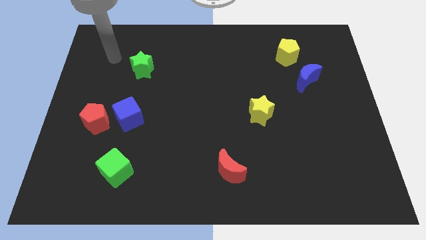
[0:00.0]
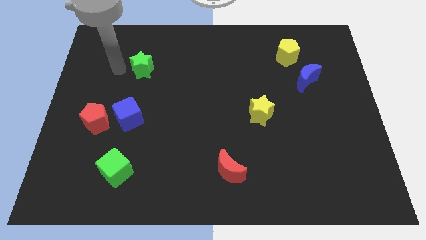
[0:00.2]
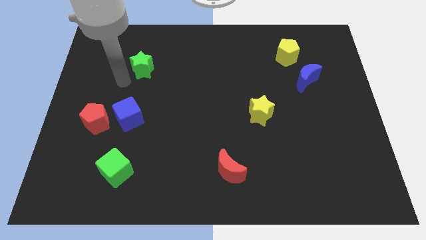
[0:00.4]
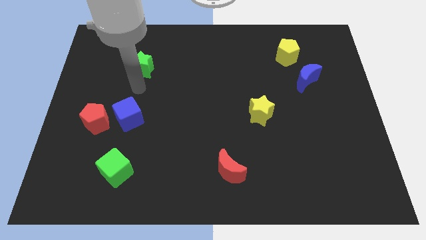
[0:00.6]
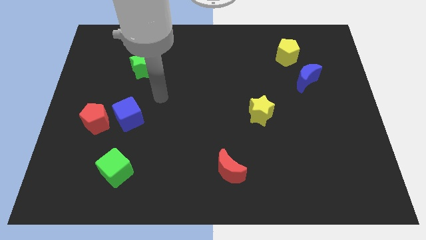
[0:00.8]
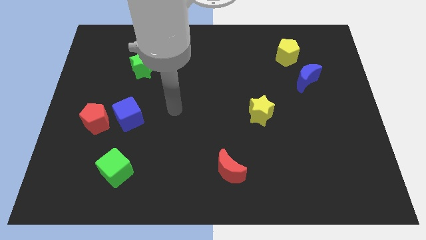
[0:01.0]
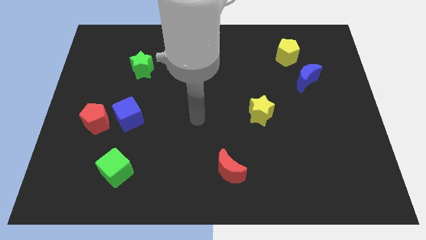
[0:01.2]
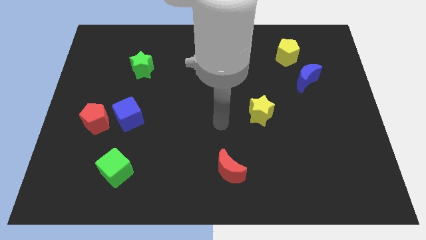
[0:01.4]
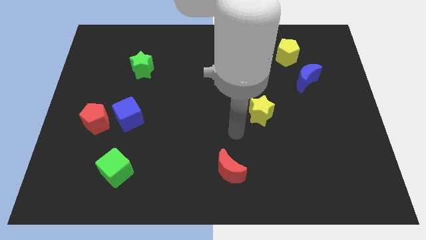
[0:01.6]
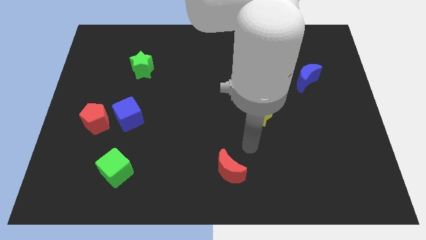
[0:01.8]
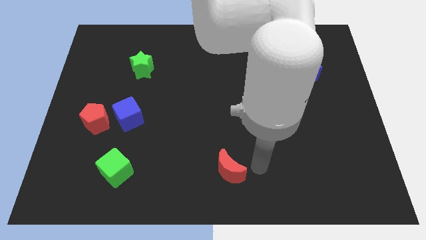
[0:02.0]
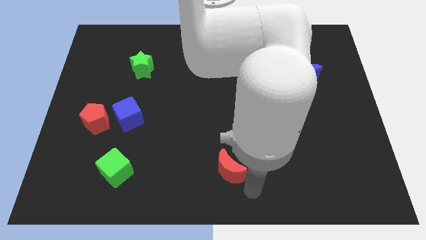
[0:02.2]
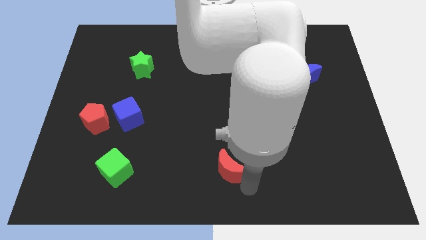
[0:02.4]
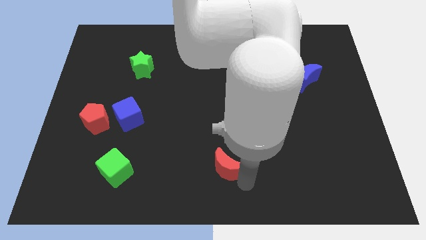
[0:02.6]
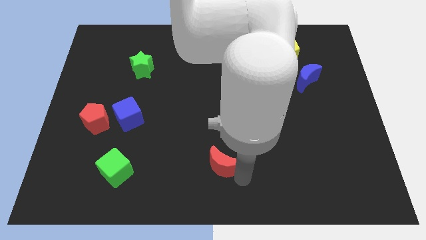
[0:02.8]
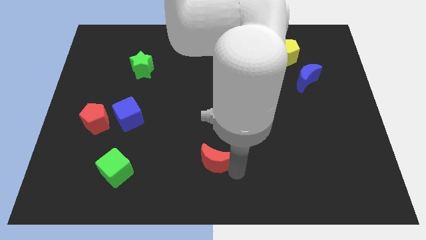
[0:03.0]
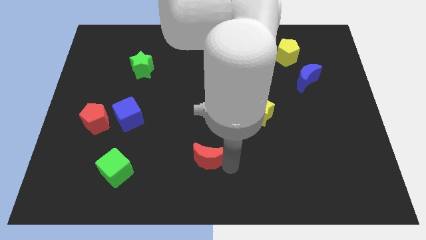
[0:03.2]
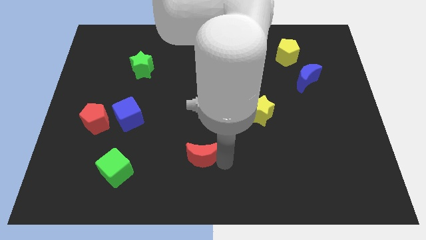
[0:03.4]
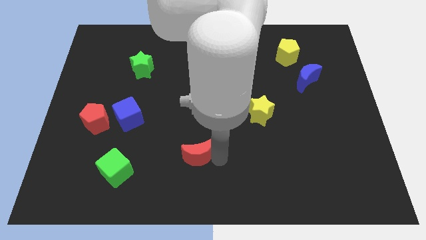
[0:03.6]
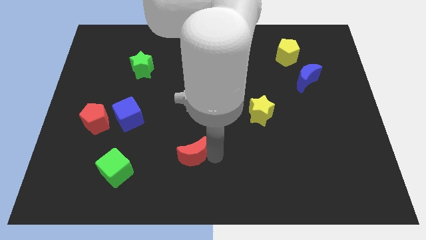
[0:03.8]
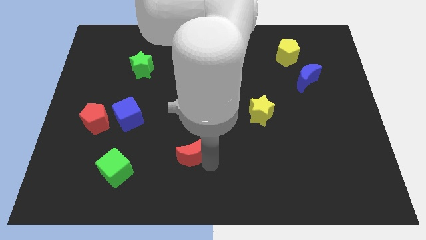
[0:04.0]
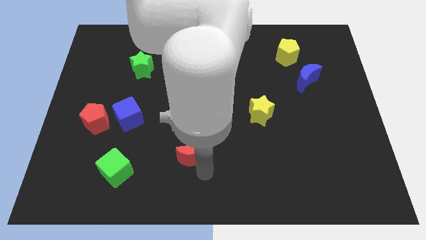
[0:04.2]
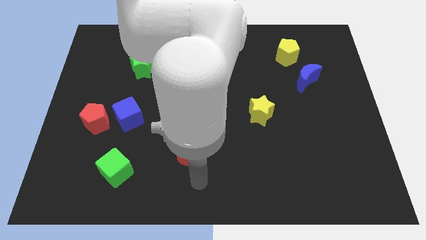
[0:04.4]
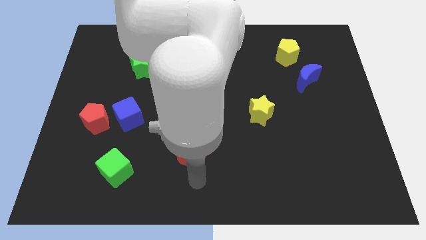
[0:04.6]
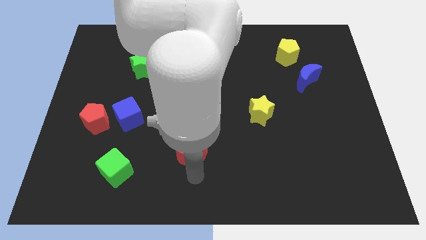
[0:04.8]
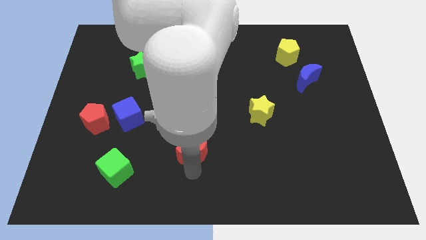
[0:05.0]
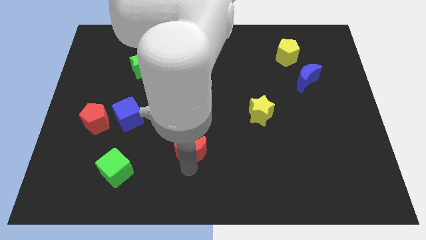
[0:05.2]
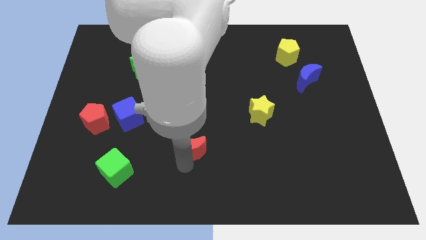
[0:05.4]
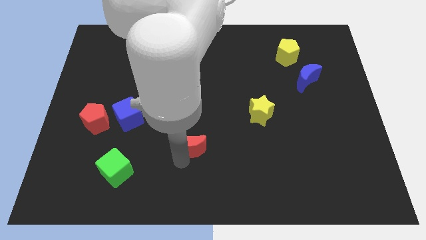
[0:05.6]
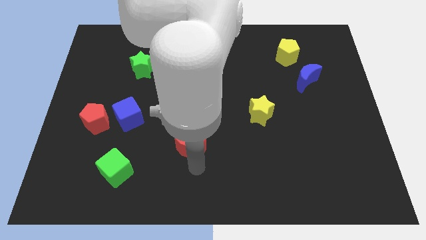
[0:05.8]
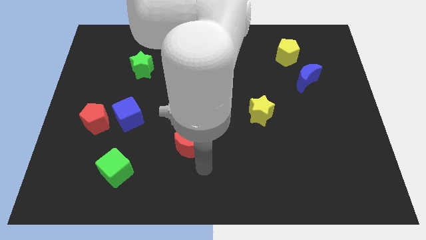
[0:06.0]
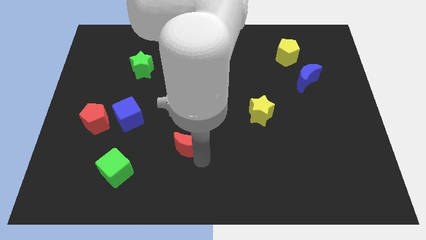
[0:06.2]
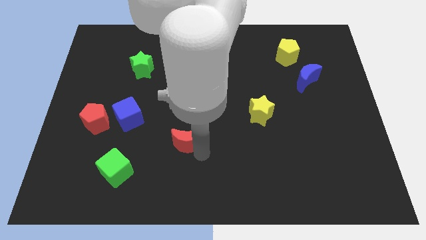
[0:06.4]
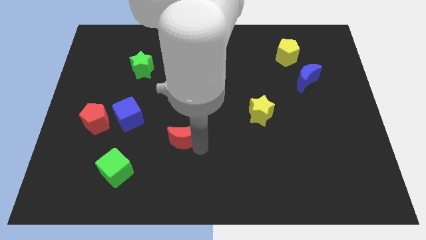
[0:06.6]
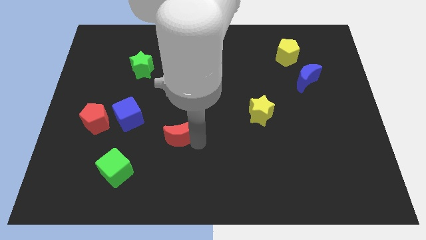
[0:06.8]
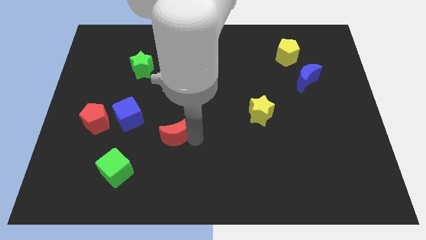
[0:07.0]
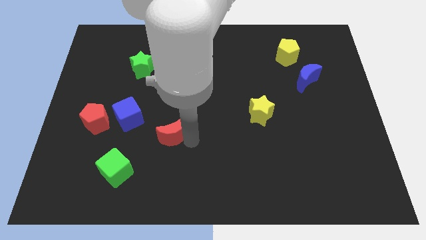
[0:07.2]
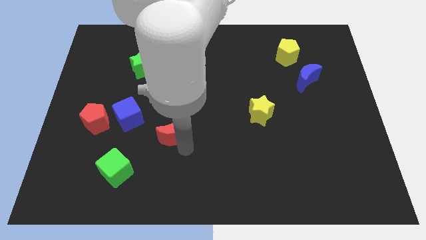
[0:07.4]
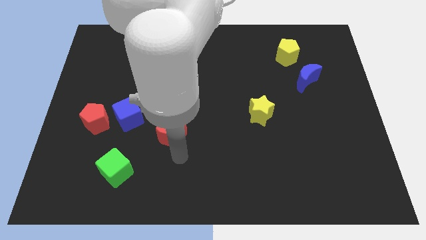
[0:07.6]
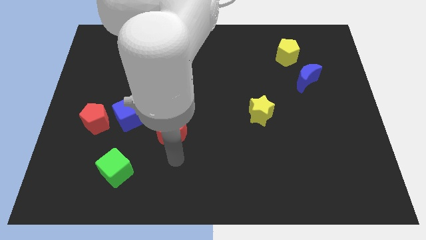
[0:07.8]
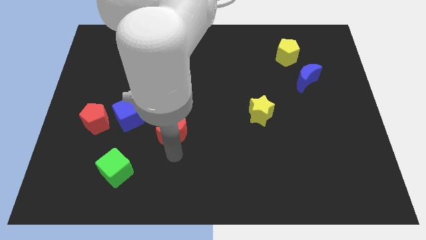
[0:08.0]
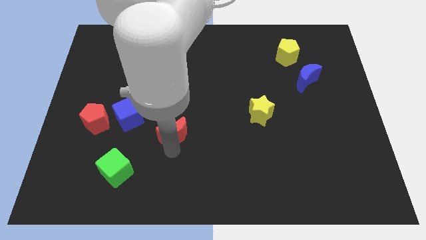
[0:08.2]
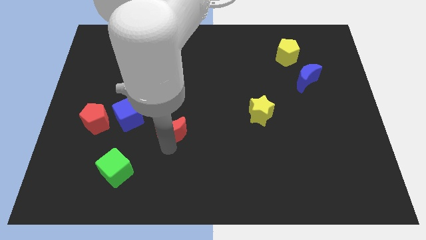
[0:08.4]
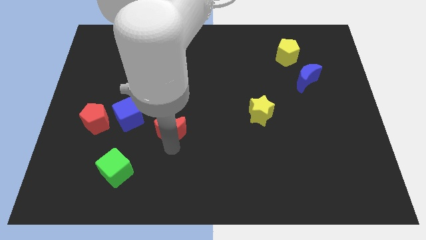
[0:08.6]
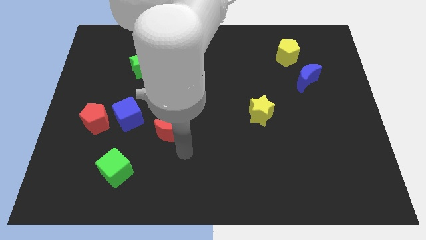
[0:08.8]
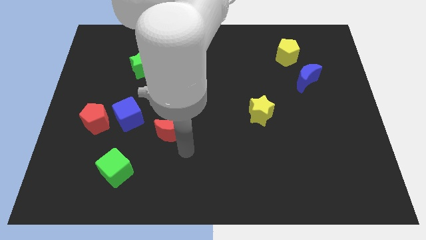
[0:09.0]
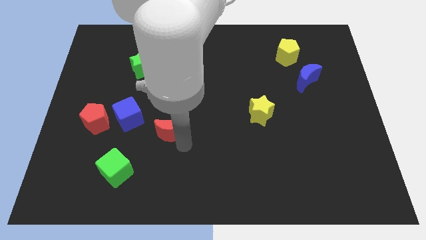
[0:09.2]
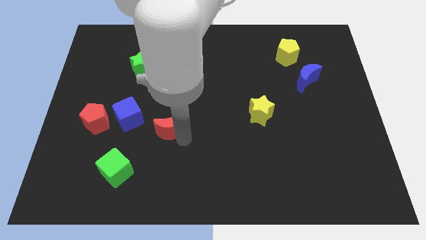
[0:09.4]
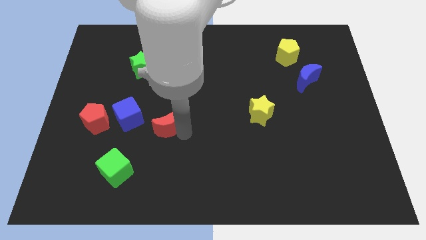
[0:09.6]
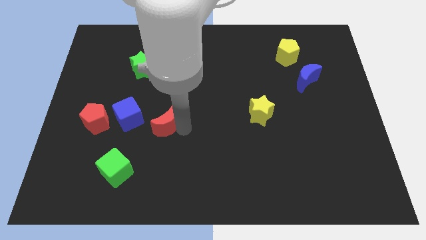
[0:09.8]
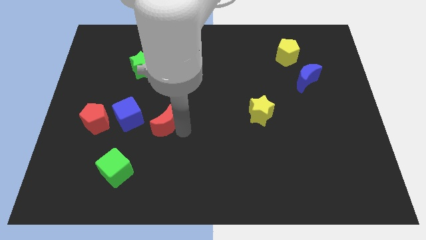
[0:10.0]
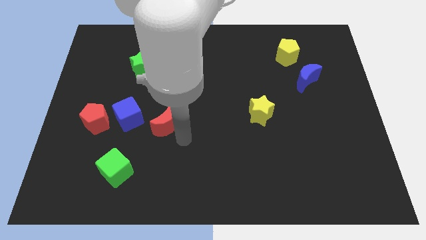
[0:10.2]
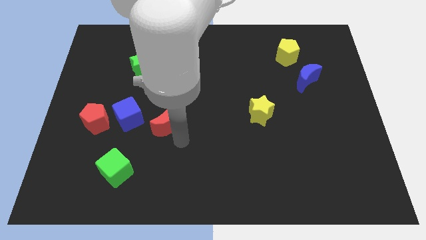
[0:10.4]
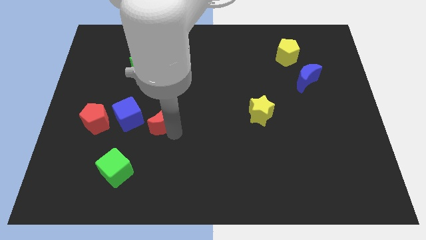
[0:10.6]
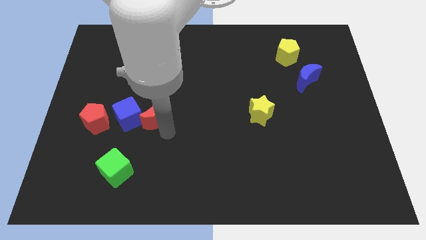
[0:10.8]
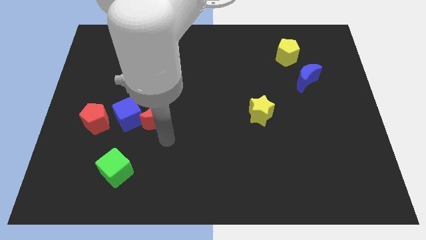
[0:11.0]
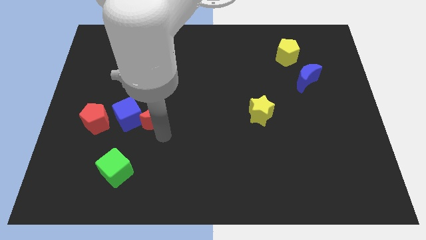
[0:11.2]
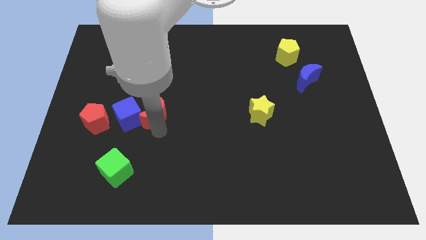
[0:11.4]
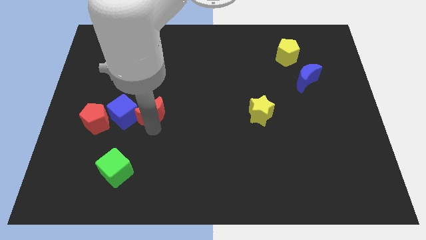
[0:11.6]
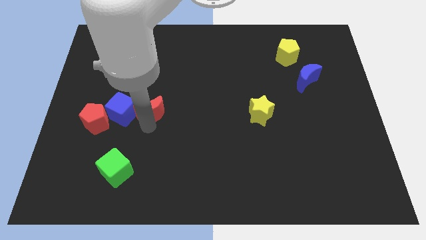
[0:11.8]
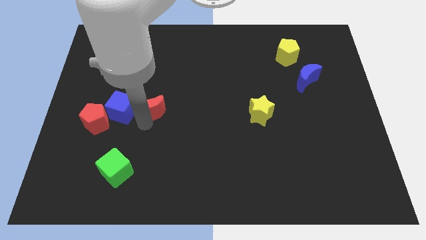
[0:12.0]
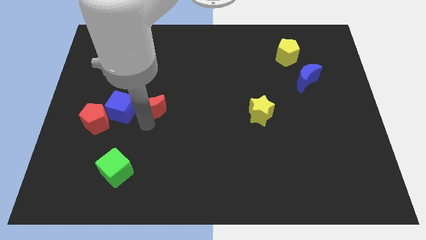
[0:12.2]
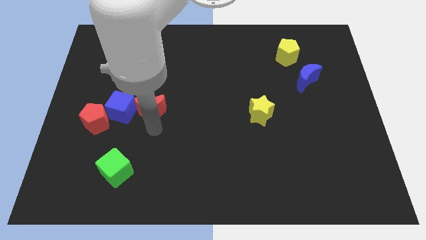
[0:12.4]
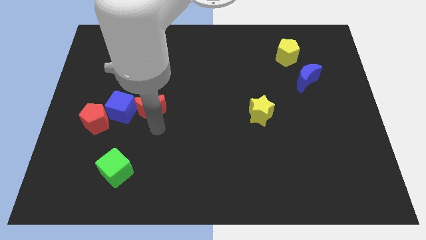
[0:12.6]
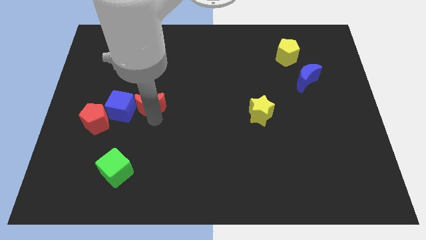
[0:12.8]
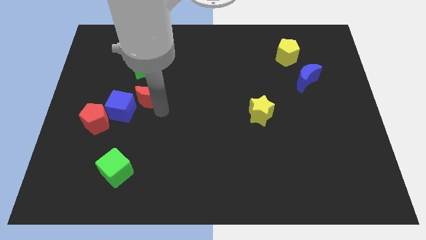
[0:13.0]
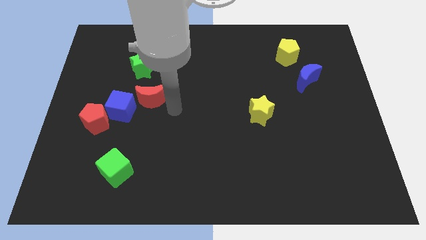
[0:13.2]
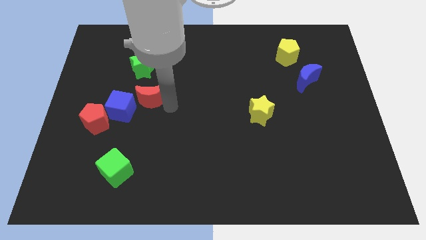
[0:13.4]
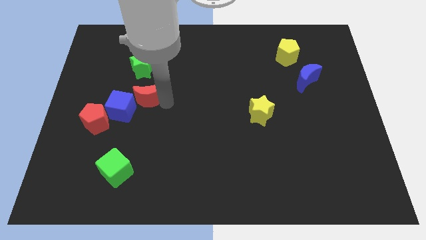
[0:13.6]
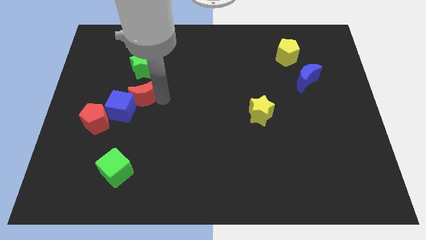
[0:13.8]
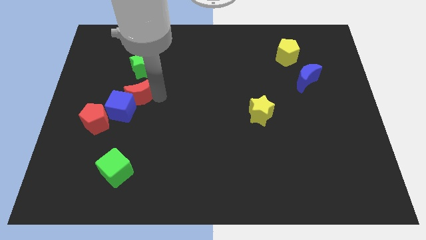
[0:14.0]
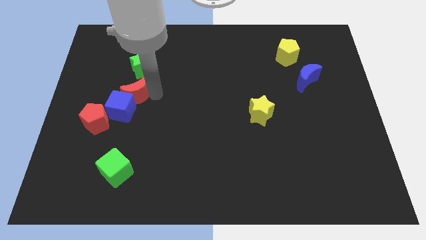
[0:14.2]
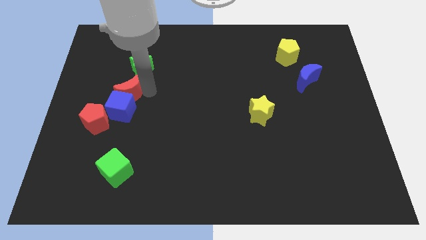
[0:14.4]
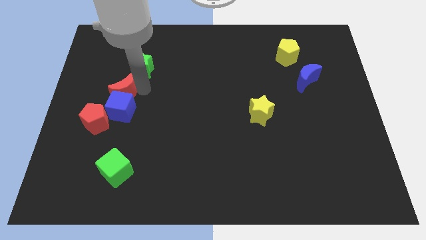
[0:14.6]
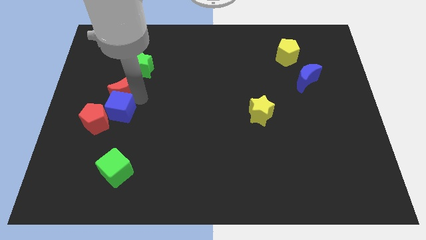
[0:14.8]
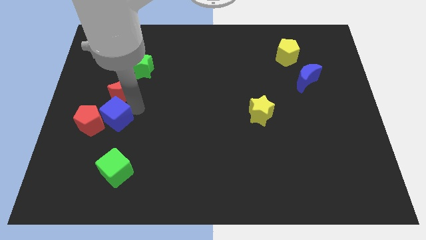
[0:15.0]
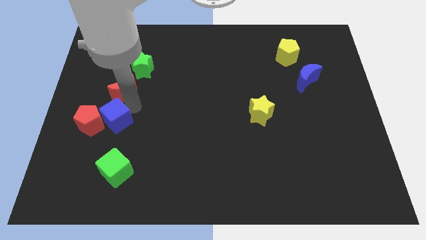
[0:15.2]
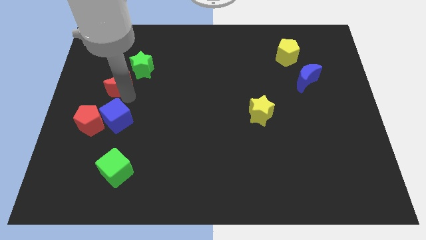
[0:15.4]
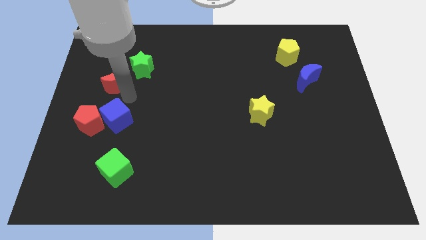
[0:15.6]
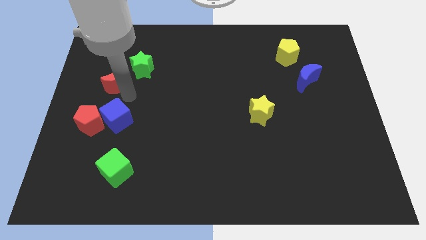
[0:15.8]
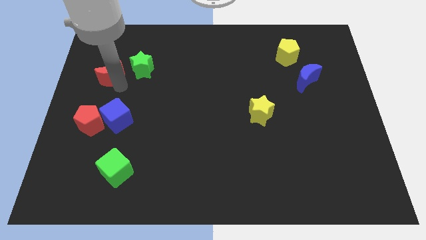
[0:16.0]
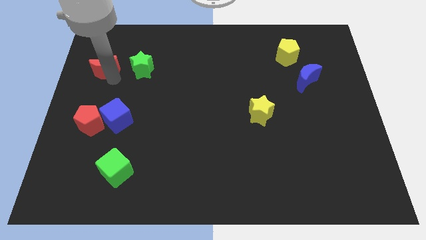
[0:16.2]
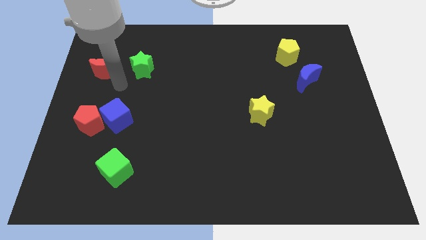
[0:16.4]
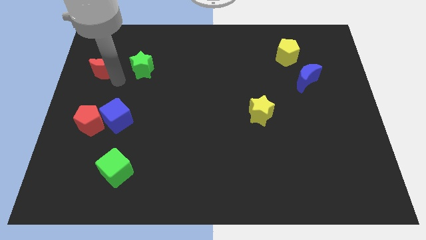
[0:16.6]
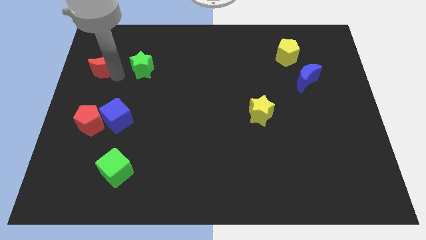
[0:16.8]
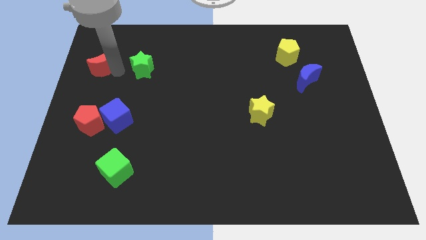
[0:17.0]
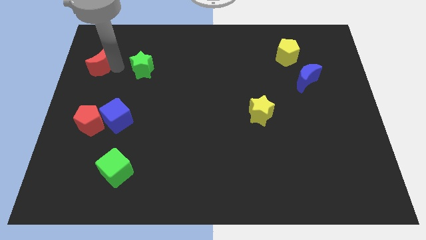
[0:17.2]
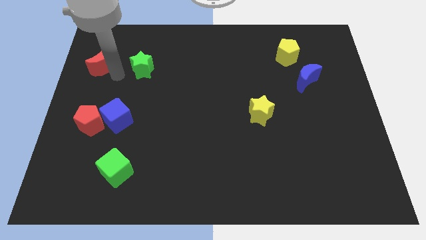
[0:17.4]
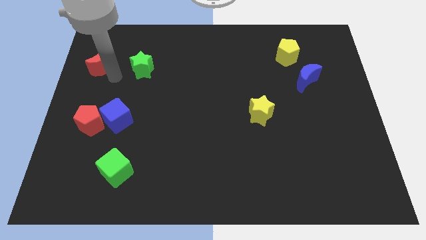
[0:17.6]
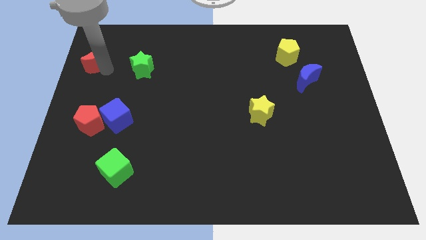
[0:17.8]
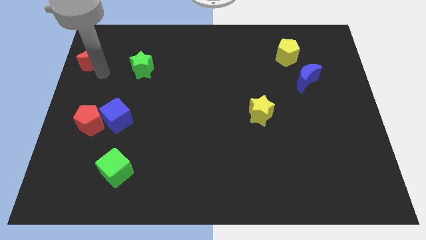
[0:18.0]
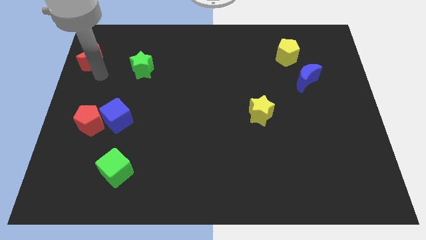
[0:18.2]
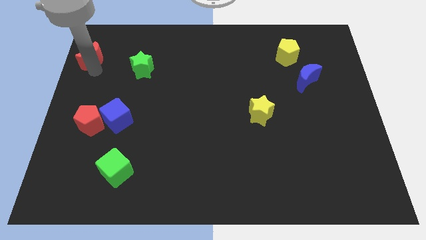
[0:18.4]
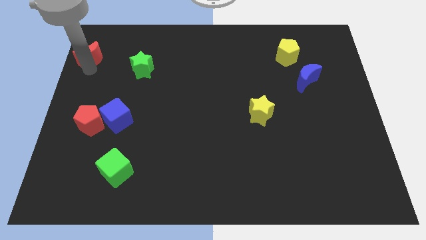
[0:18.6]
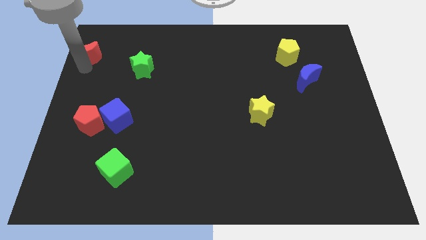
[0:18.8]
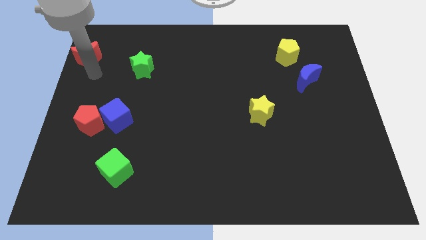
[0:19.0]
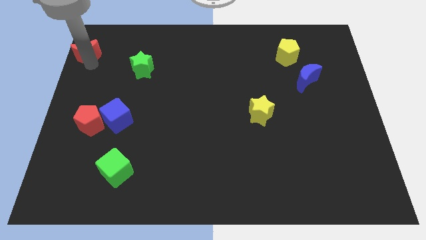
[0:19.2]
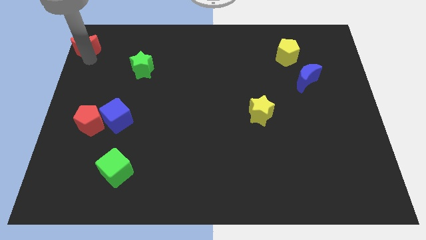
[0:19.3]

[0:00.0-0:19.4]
put the red moon to the upper left corner
